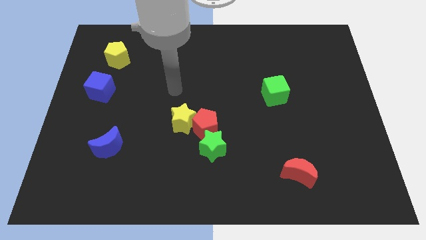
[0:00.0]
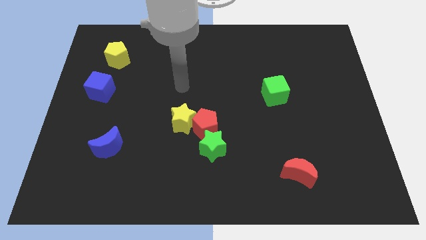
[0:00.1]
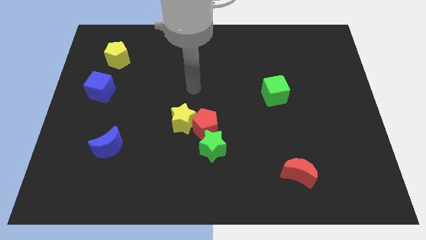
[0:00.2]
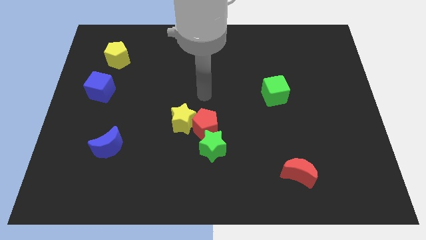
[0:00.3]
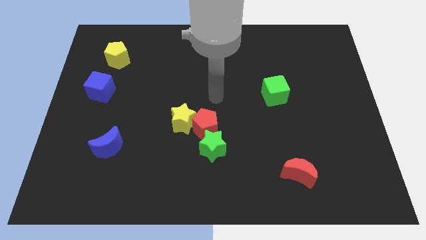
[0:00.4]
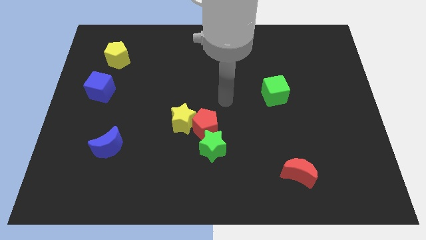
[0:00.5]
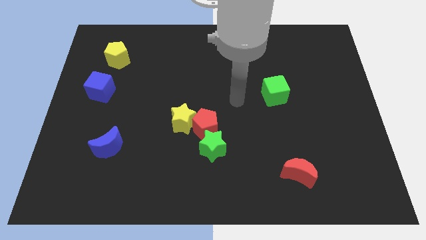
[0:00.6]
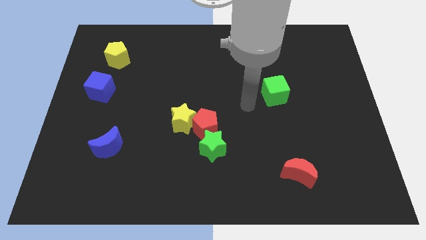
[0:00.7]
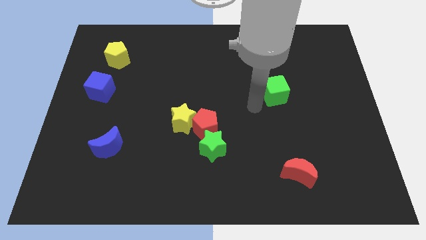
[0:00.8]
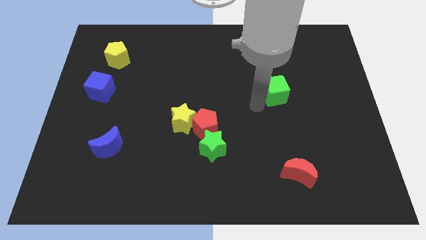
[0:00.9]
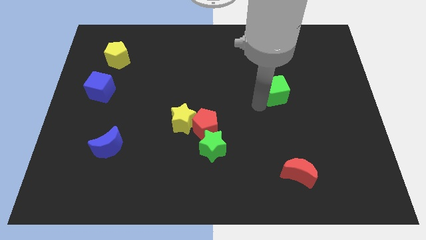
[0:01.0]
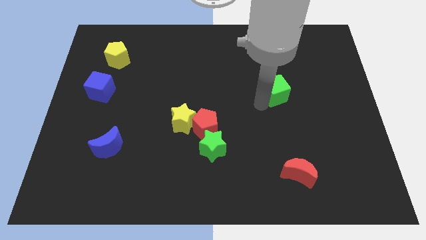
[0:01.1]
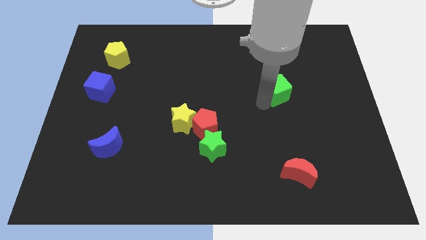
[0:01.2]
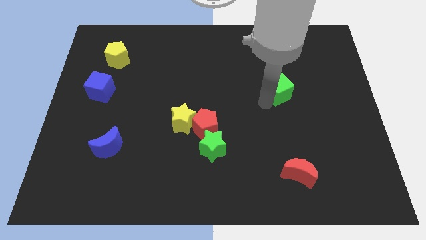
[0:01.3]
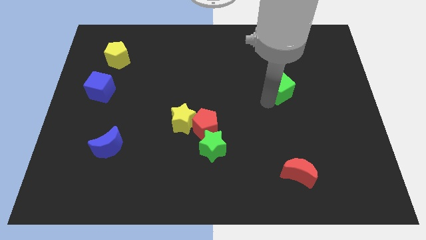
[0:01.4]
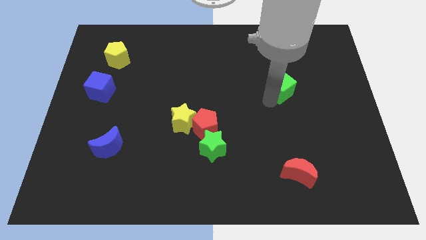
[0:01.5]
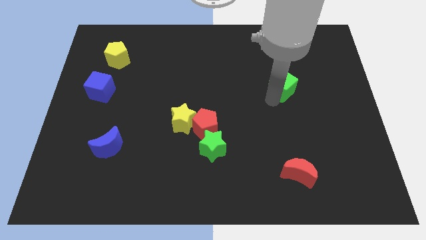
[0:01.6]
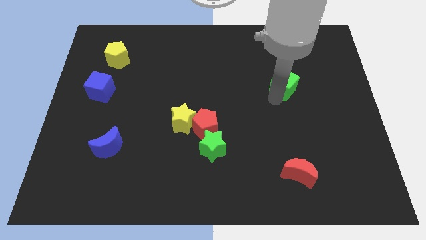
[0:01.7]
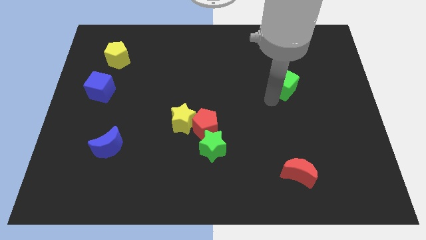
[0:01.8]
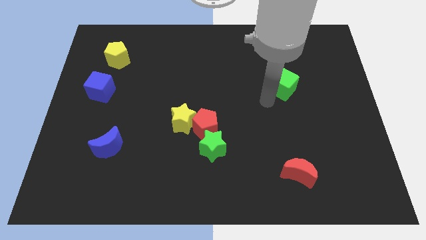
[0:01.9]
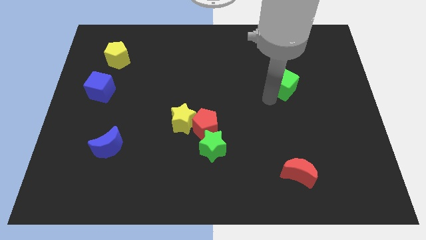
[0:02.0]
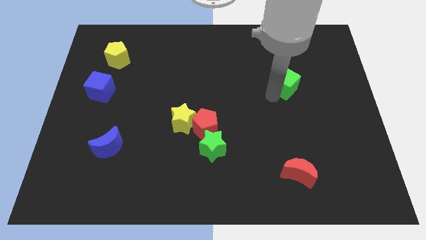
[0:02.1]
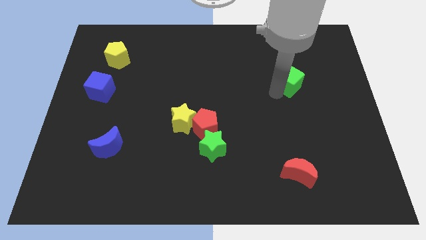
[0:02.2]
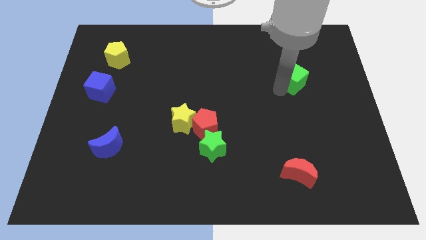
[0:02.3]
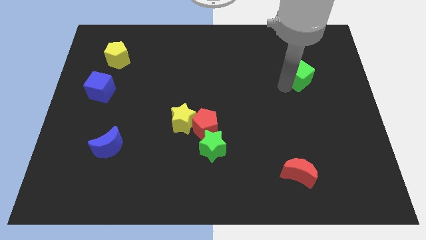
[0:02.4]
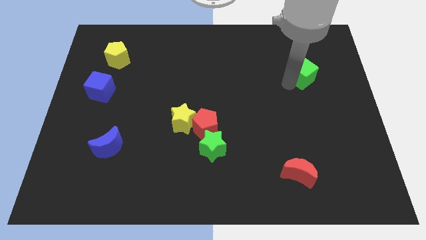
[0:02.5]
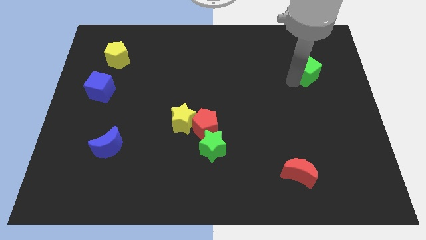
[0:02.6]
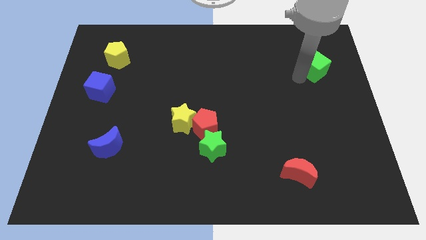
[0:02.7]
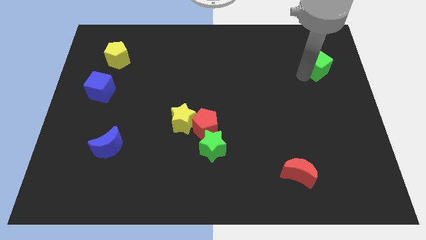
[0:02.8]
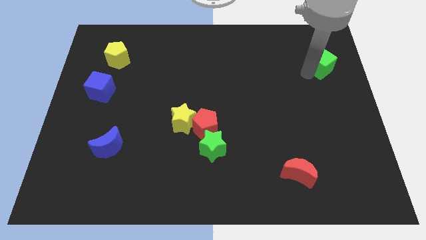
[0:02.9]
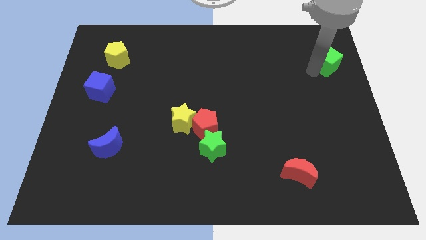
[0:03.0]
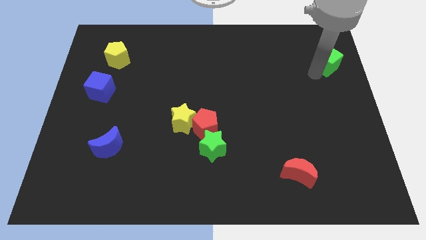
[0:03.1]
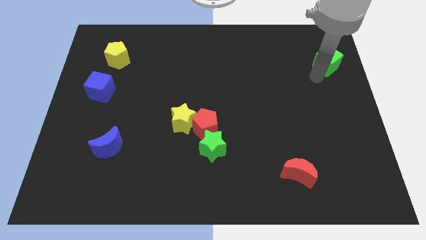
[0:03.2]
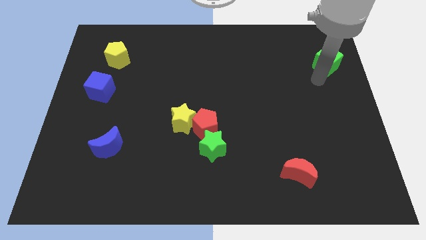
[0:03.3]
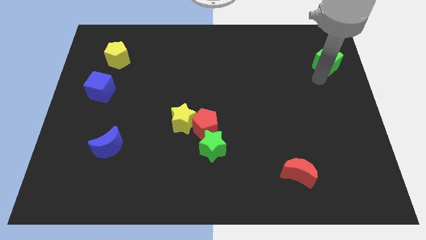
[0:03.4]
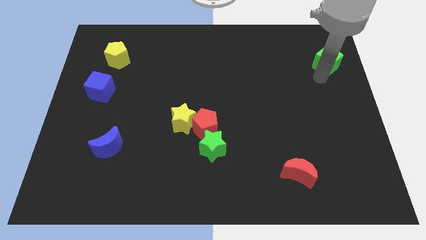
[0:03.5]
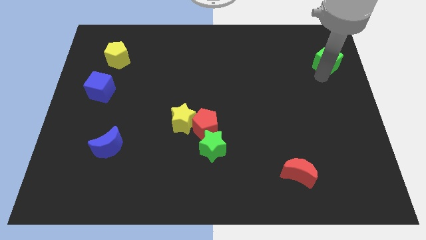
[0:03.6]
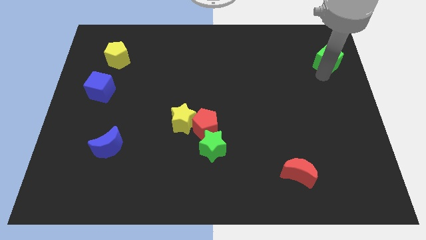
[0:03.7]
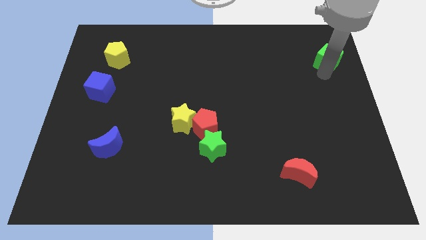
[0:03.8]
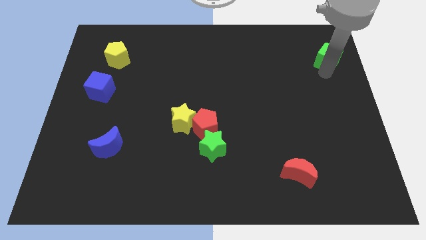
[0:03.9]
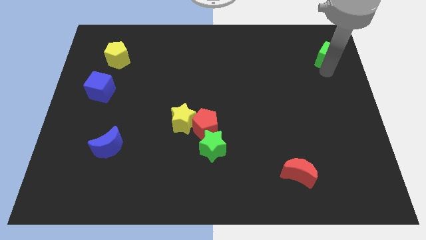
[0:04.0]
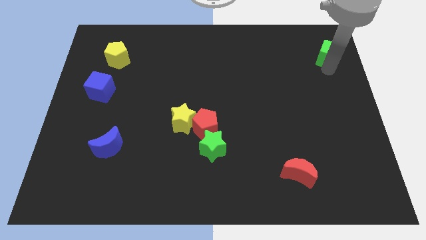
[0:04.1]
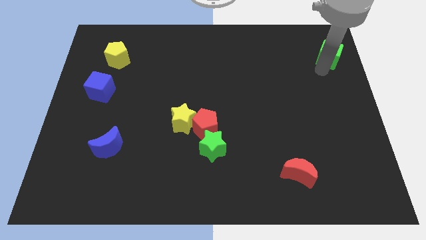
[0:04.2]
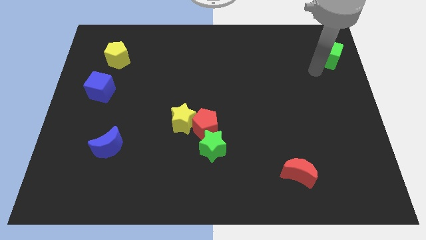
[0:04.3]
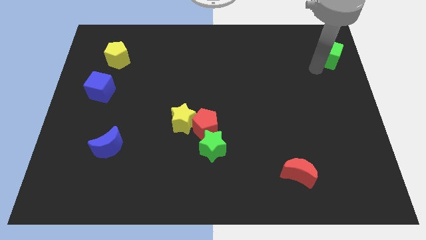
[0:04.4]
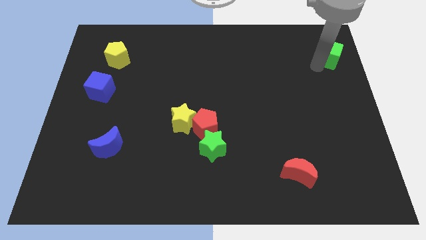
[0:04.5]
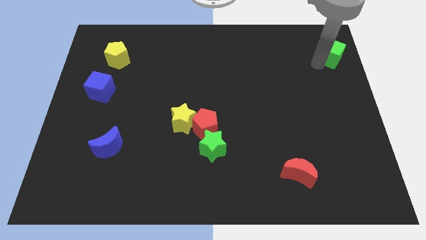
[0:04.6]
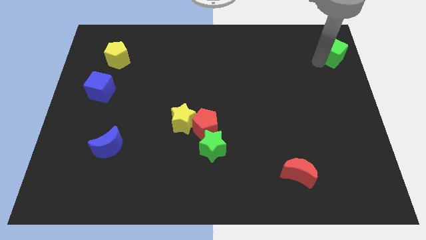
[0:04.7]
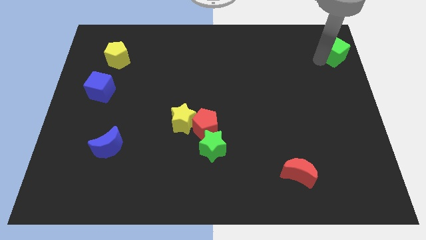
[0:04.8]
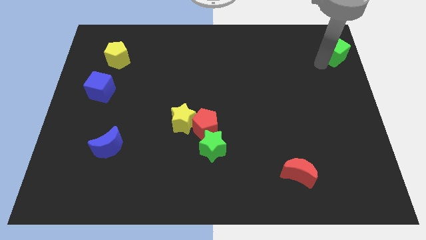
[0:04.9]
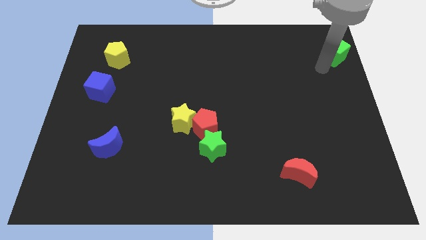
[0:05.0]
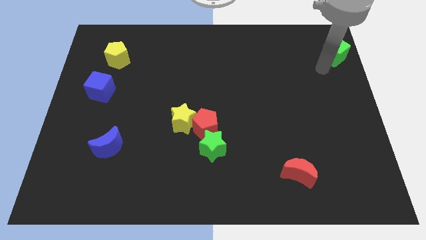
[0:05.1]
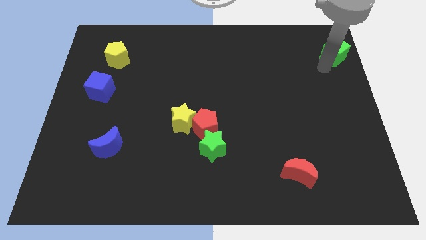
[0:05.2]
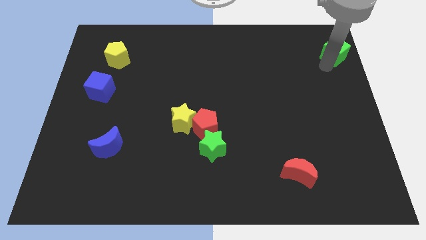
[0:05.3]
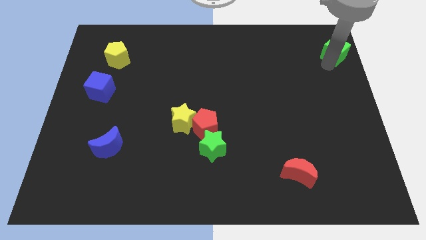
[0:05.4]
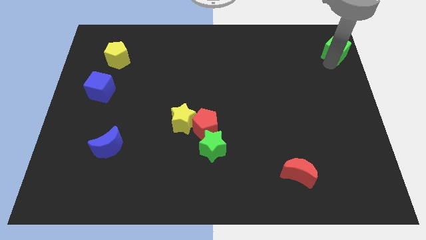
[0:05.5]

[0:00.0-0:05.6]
slide the green cube to the top right corner

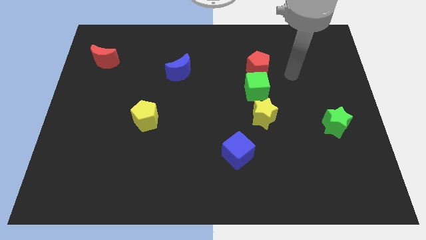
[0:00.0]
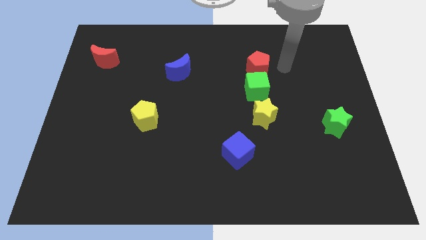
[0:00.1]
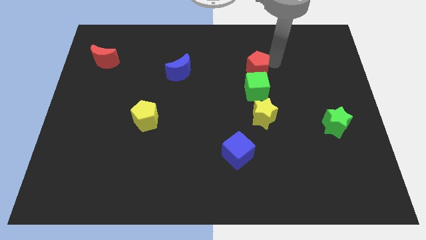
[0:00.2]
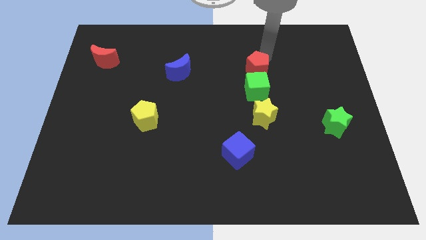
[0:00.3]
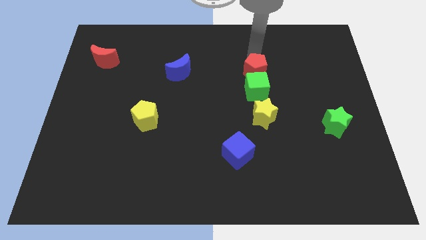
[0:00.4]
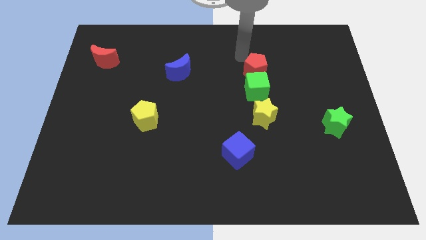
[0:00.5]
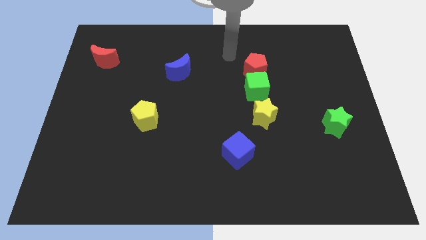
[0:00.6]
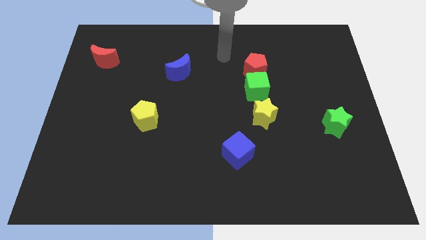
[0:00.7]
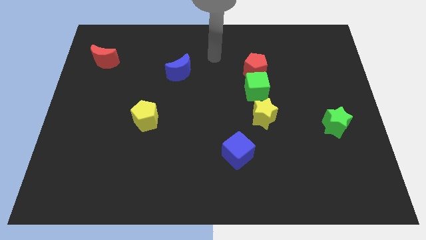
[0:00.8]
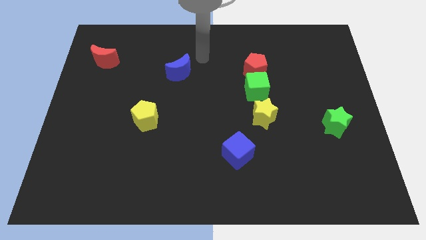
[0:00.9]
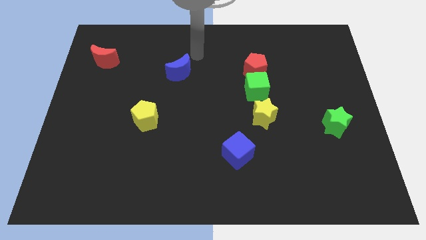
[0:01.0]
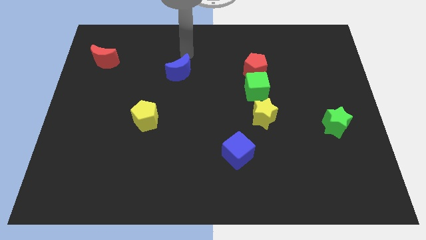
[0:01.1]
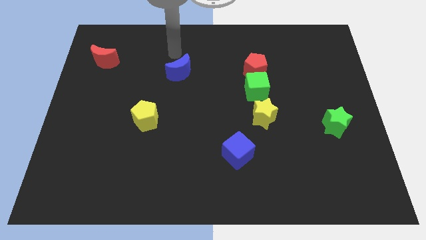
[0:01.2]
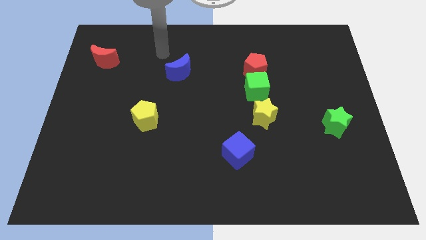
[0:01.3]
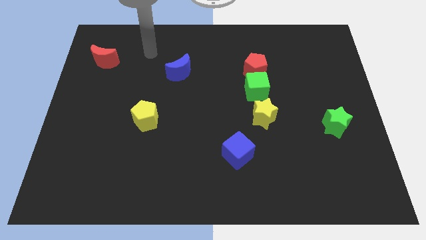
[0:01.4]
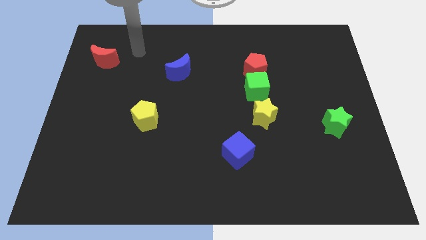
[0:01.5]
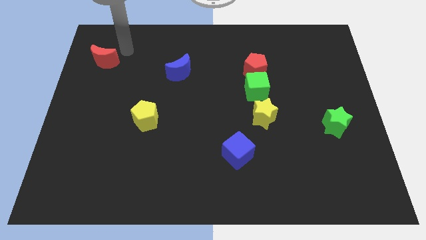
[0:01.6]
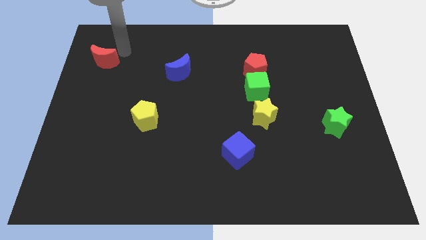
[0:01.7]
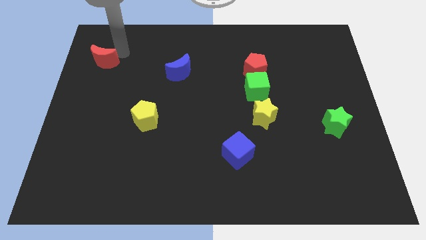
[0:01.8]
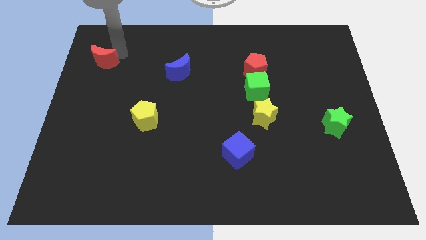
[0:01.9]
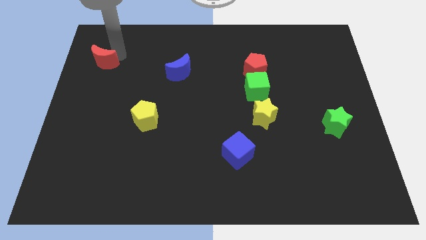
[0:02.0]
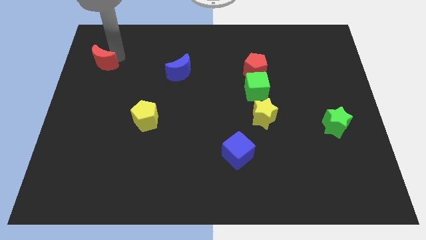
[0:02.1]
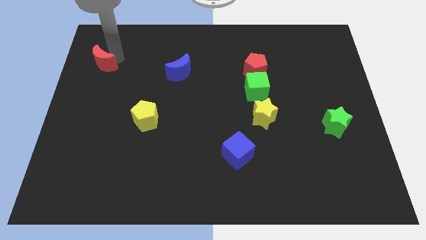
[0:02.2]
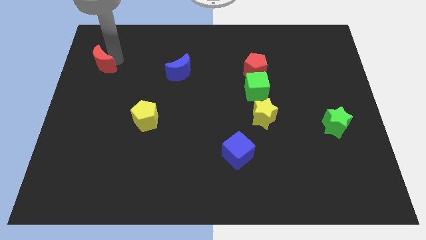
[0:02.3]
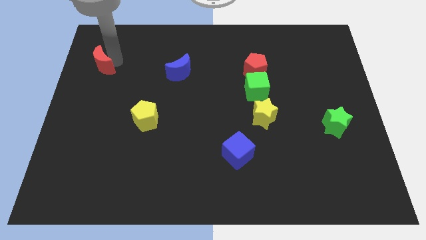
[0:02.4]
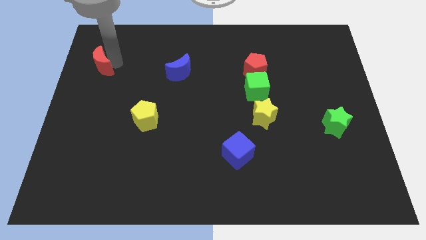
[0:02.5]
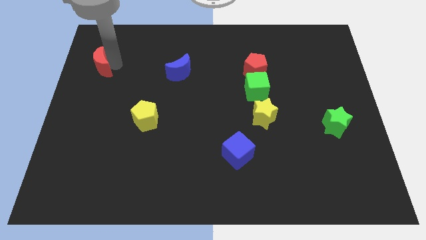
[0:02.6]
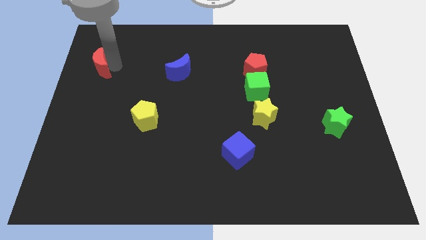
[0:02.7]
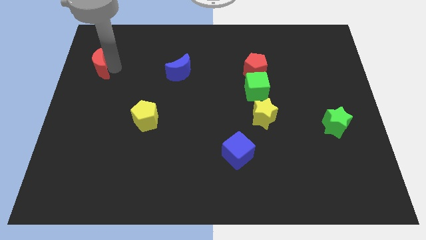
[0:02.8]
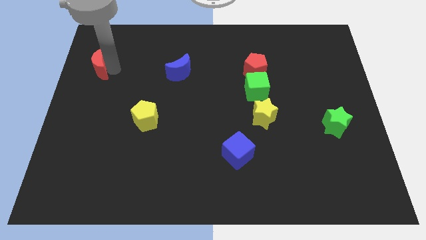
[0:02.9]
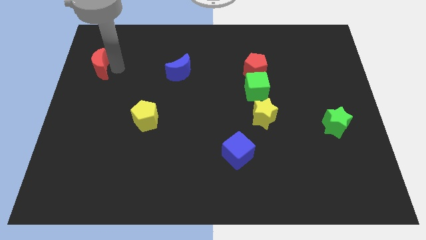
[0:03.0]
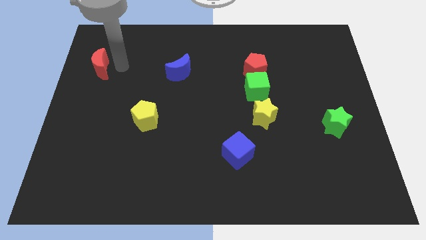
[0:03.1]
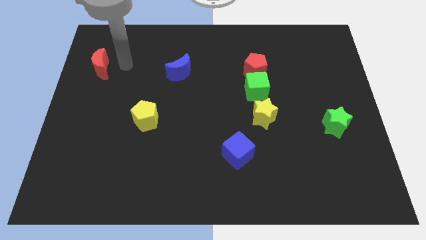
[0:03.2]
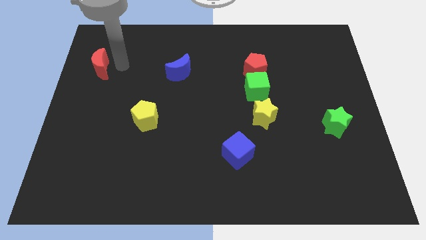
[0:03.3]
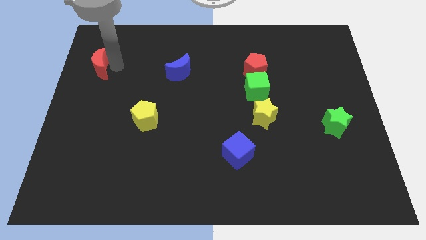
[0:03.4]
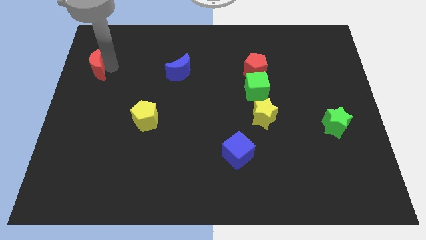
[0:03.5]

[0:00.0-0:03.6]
put the red moon to the left side
